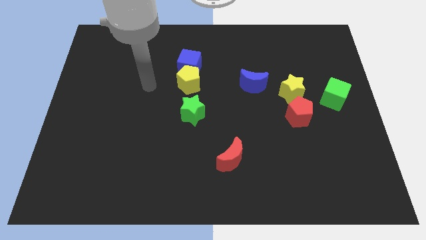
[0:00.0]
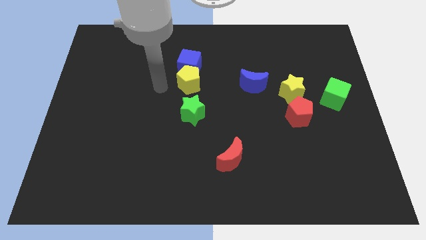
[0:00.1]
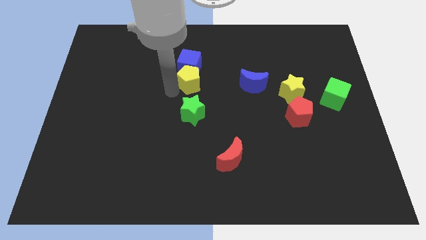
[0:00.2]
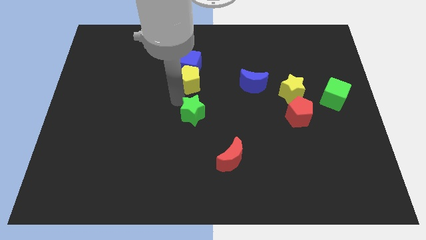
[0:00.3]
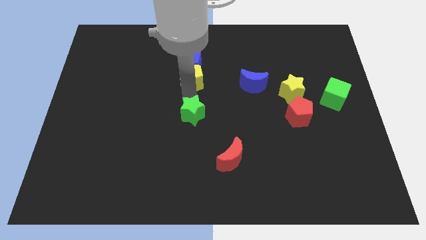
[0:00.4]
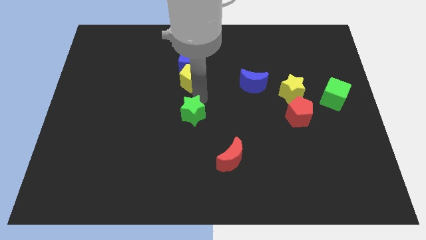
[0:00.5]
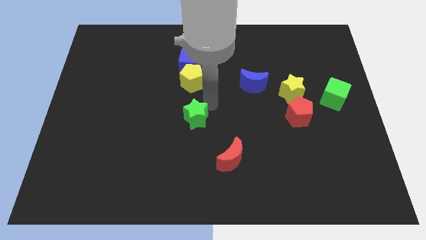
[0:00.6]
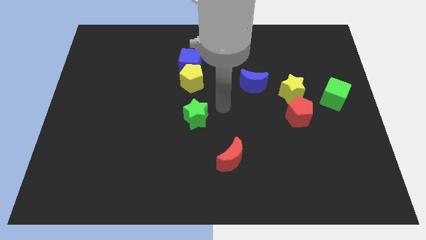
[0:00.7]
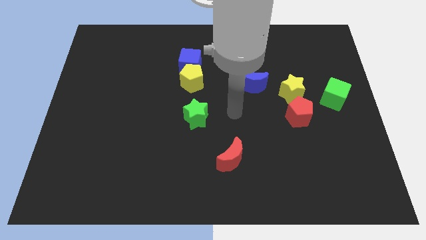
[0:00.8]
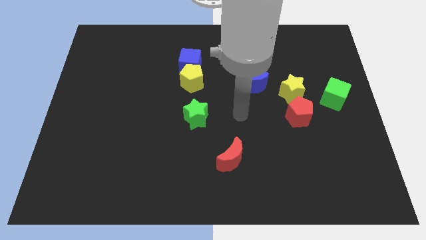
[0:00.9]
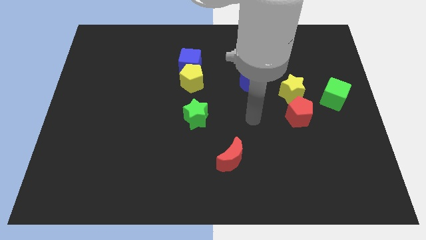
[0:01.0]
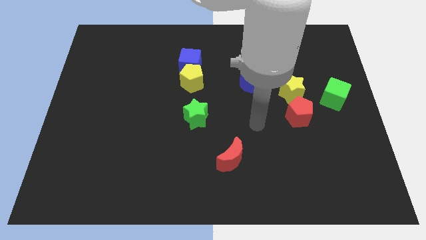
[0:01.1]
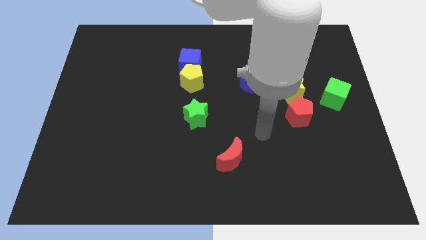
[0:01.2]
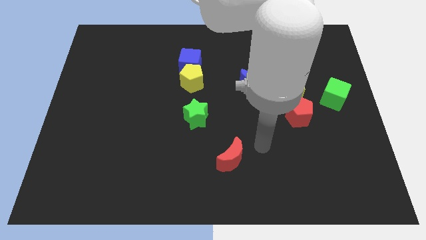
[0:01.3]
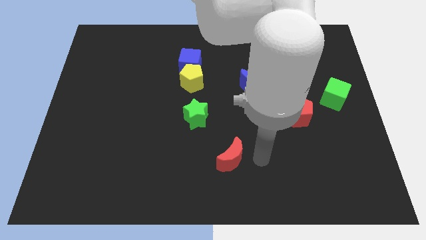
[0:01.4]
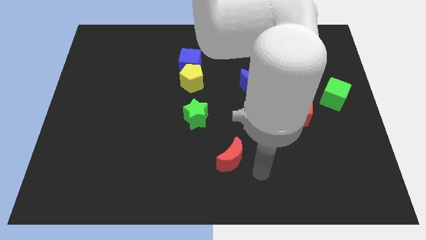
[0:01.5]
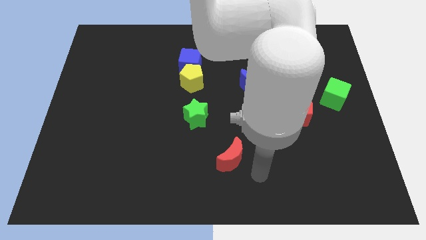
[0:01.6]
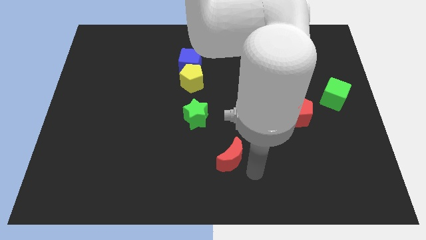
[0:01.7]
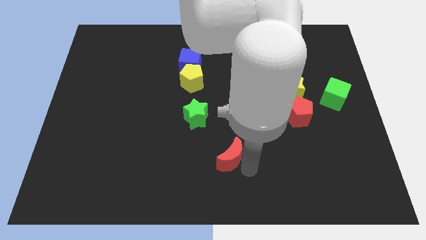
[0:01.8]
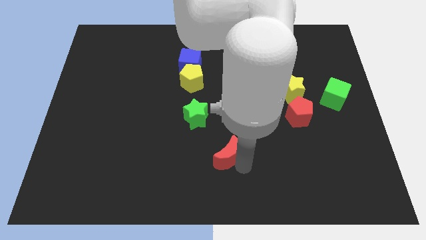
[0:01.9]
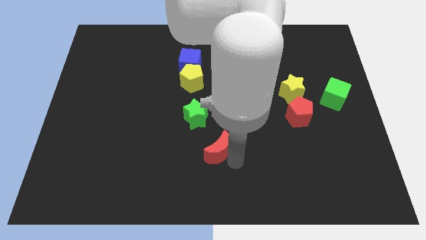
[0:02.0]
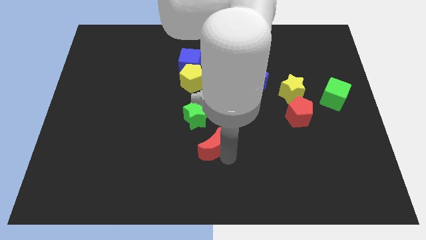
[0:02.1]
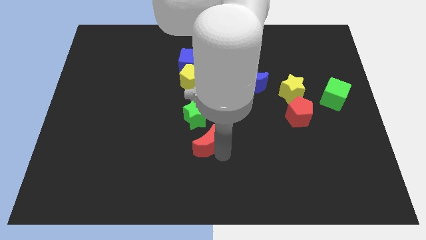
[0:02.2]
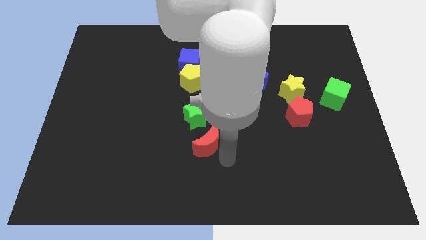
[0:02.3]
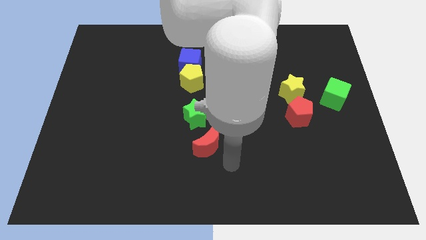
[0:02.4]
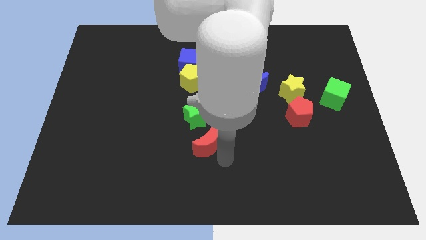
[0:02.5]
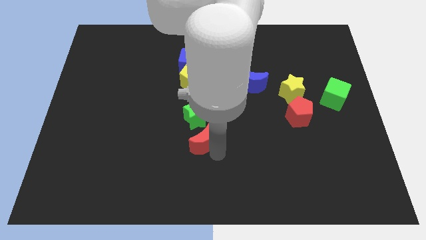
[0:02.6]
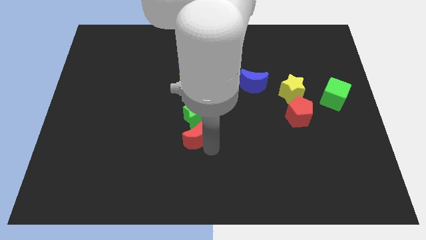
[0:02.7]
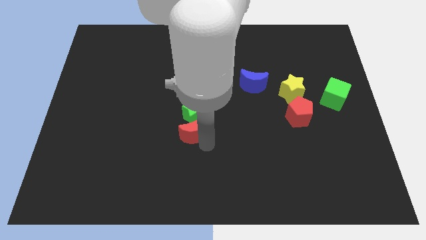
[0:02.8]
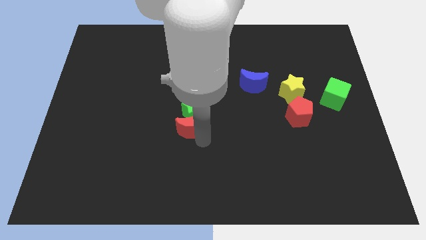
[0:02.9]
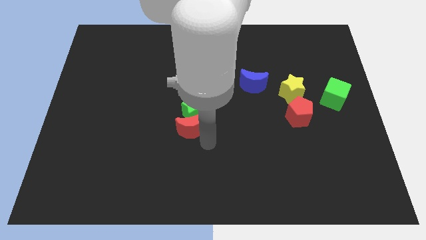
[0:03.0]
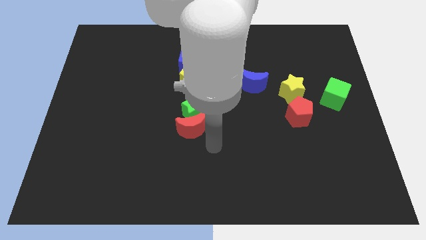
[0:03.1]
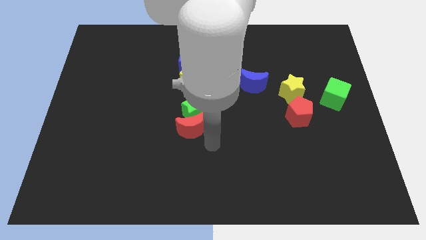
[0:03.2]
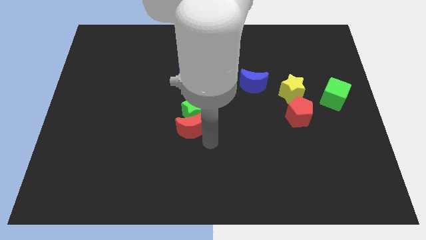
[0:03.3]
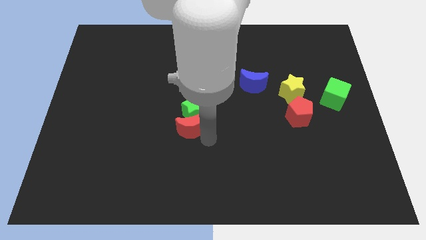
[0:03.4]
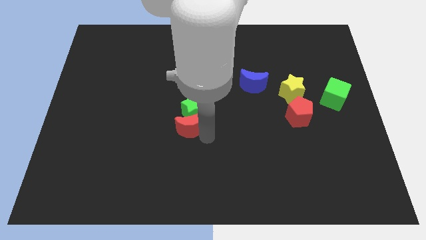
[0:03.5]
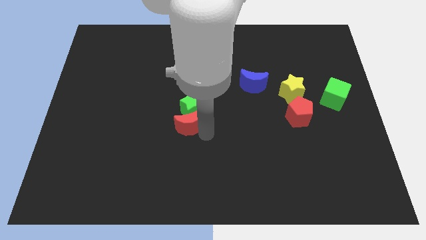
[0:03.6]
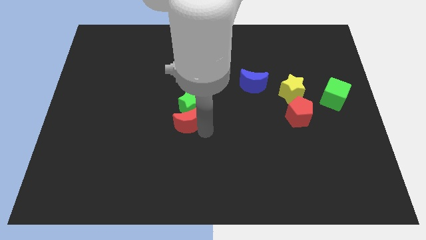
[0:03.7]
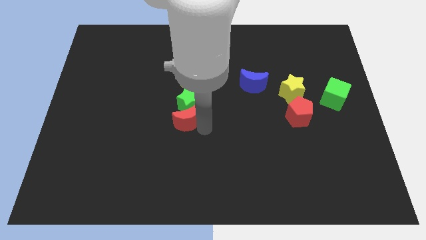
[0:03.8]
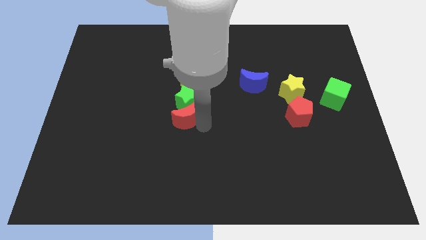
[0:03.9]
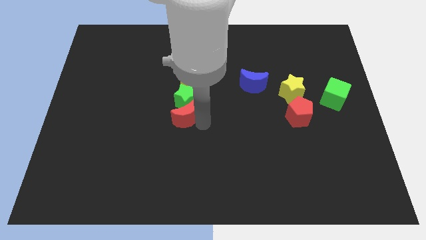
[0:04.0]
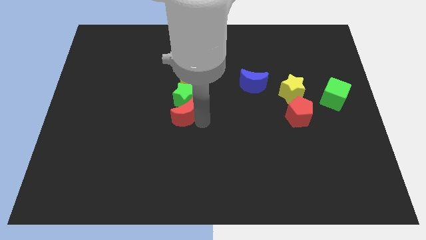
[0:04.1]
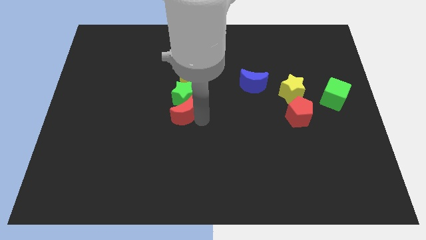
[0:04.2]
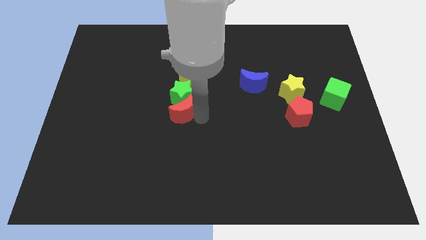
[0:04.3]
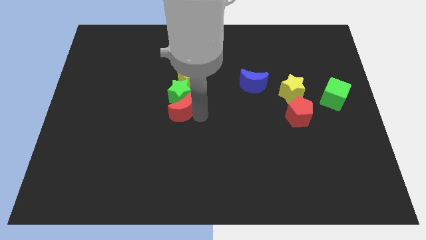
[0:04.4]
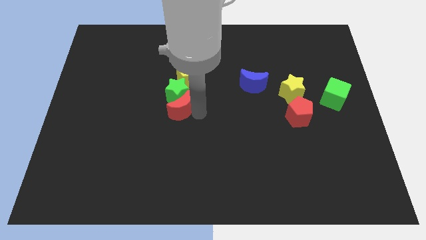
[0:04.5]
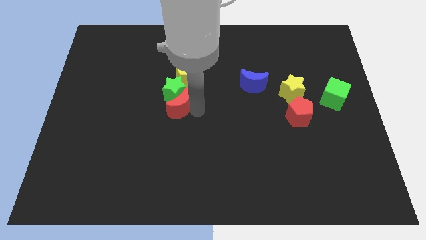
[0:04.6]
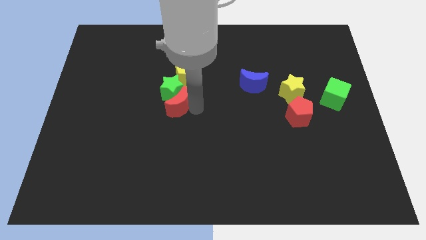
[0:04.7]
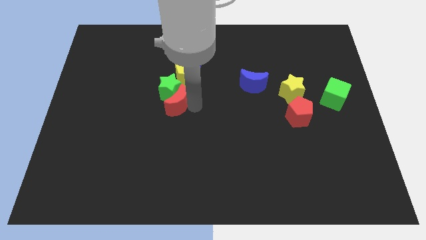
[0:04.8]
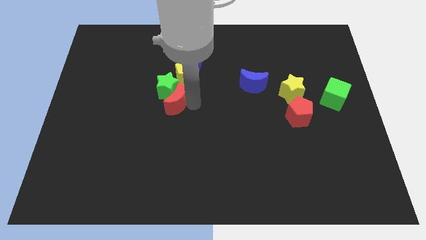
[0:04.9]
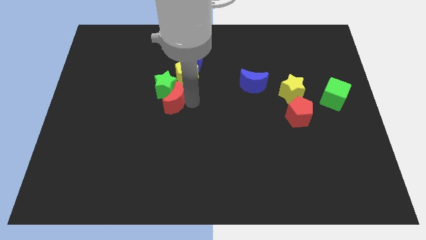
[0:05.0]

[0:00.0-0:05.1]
push the red moon upwards and to the left diagonally

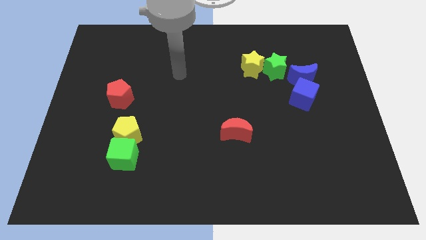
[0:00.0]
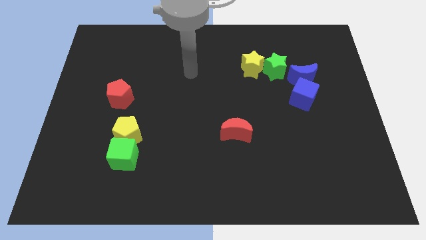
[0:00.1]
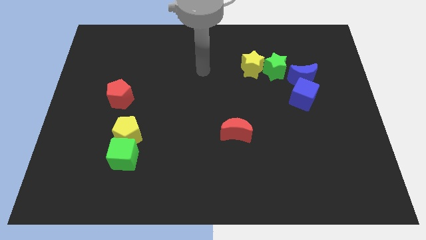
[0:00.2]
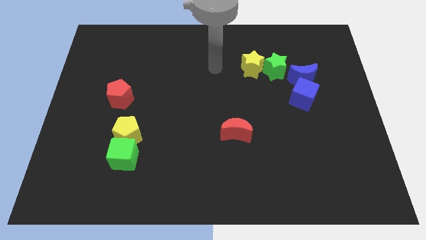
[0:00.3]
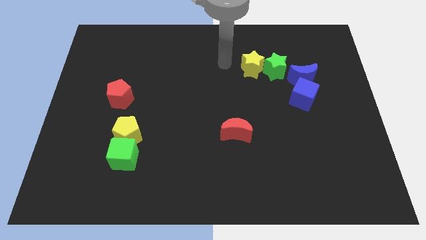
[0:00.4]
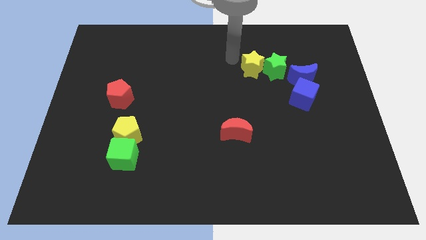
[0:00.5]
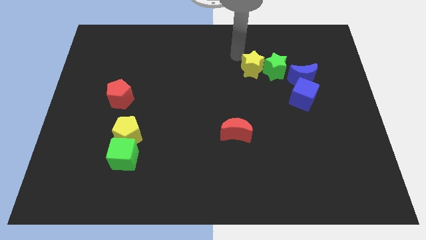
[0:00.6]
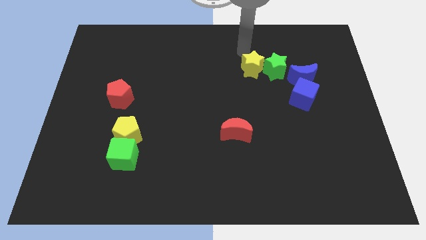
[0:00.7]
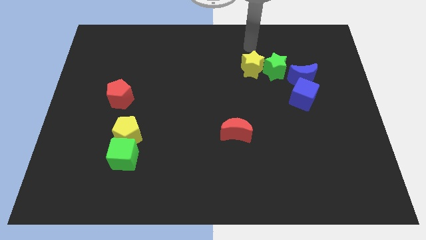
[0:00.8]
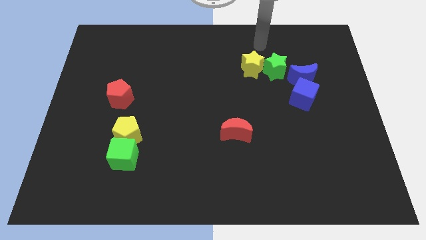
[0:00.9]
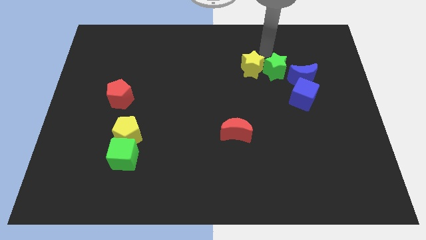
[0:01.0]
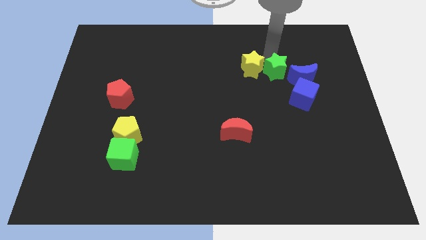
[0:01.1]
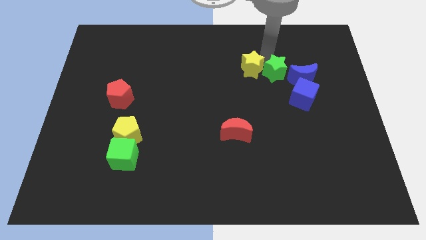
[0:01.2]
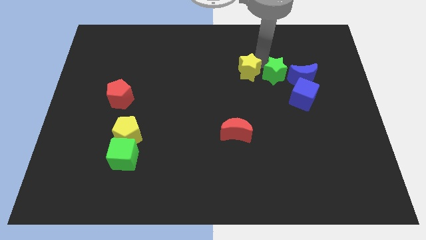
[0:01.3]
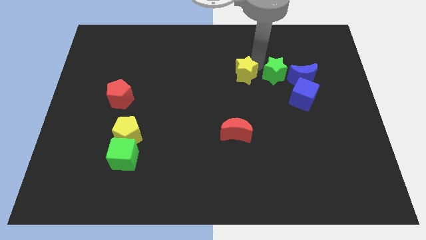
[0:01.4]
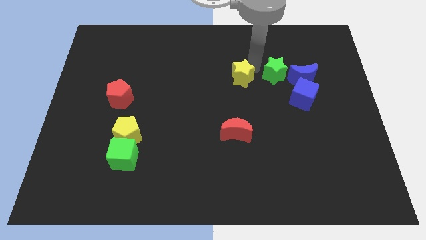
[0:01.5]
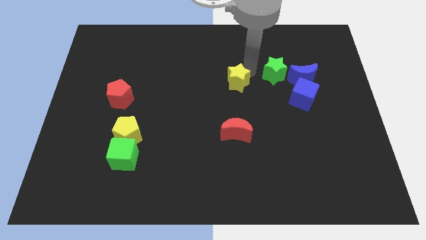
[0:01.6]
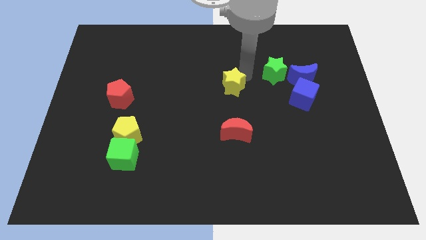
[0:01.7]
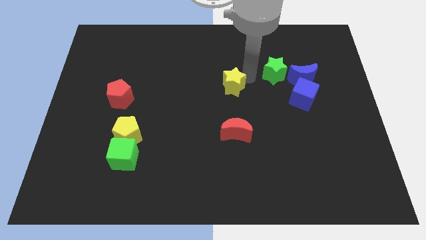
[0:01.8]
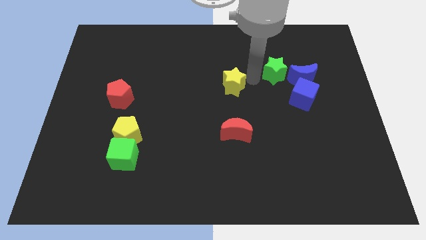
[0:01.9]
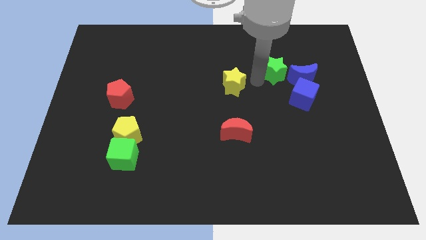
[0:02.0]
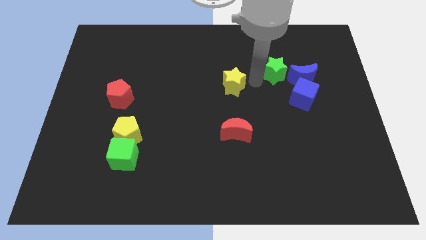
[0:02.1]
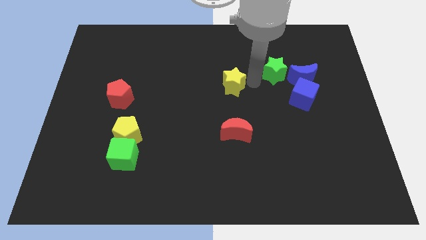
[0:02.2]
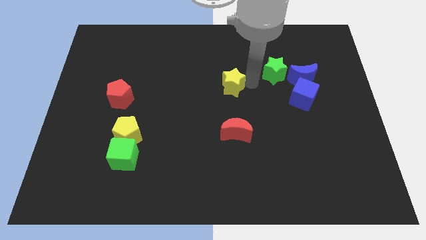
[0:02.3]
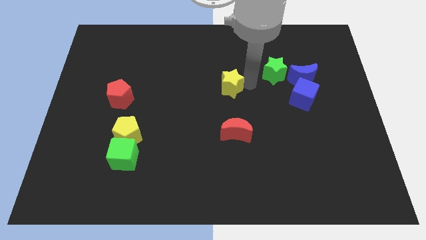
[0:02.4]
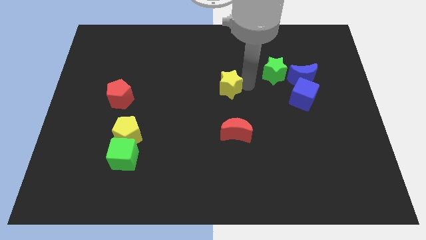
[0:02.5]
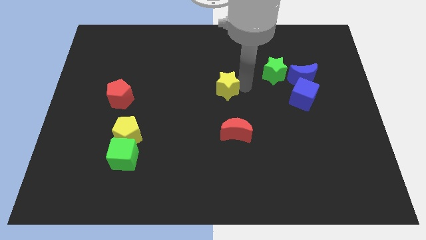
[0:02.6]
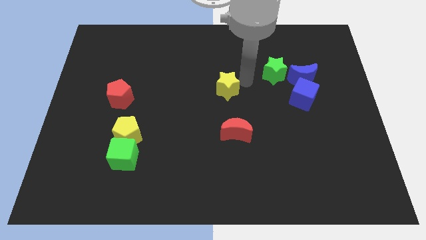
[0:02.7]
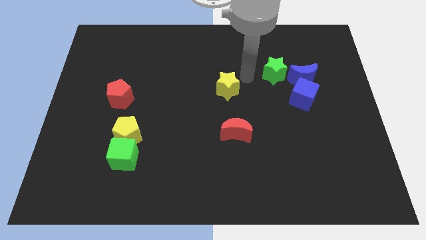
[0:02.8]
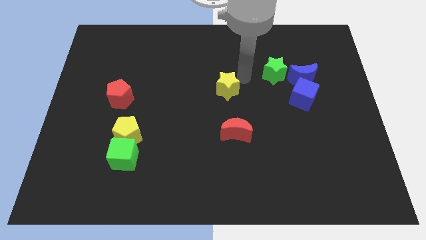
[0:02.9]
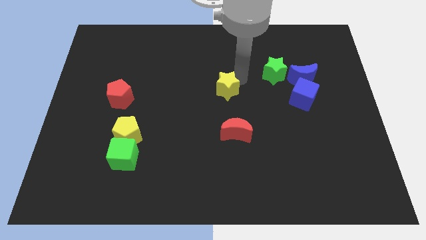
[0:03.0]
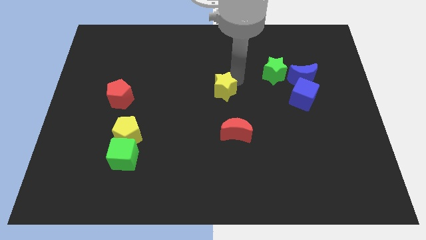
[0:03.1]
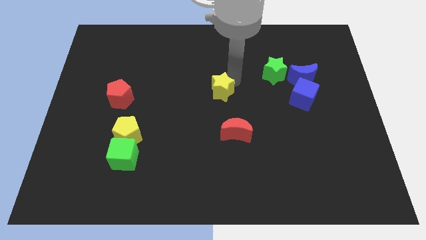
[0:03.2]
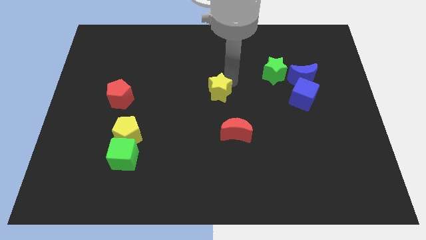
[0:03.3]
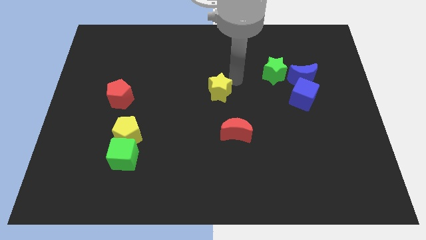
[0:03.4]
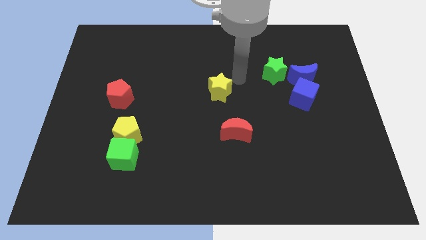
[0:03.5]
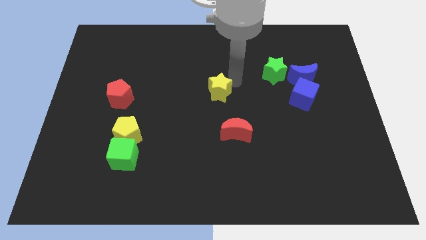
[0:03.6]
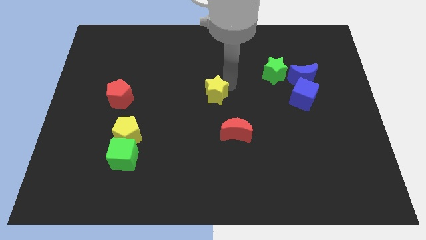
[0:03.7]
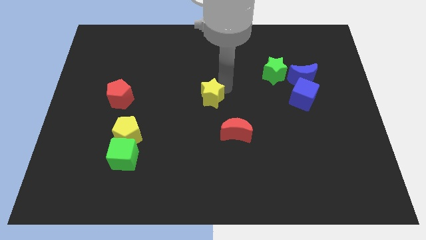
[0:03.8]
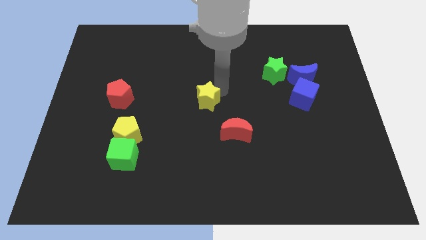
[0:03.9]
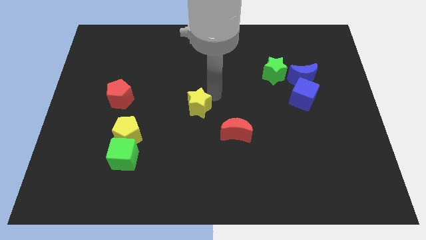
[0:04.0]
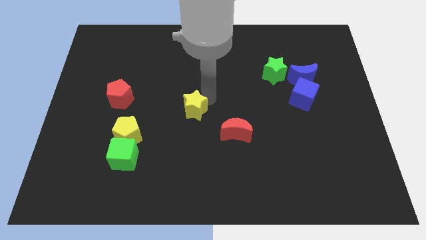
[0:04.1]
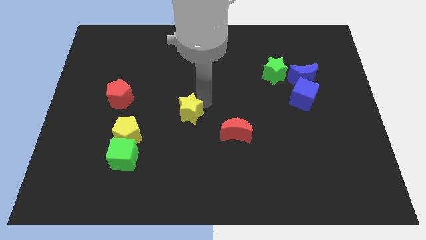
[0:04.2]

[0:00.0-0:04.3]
push the yellow star down and then left
